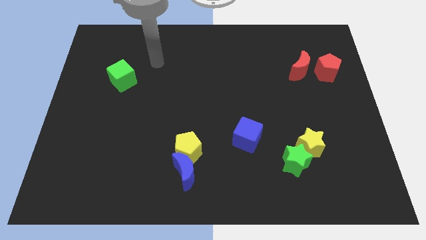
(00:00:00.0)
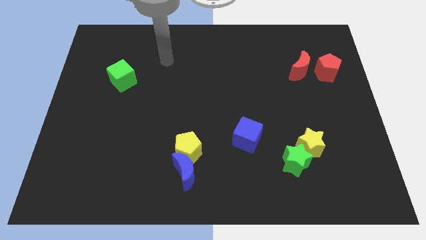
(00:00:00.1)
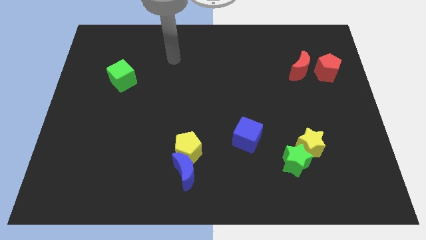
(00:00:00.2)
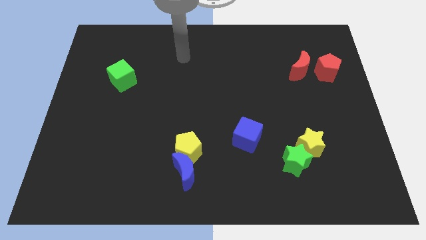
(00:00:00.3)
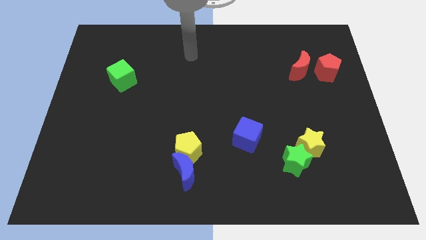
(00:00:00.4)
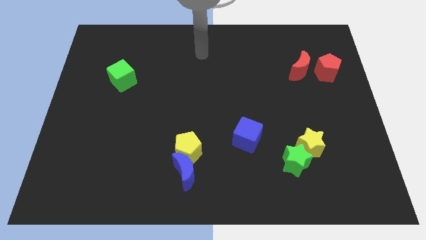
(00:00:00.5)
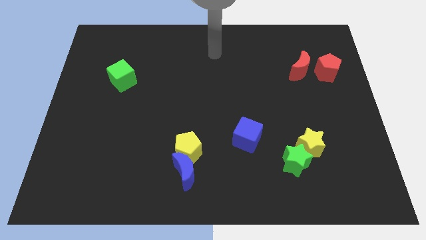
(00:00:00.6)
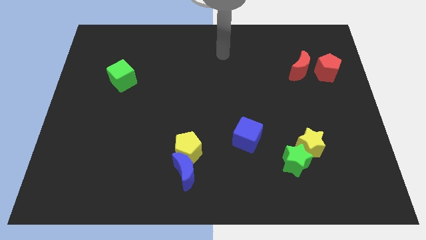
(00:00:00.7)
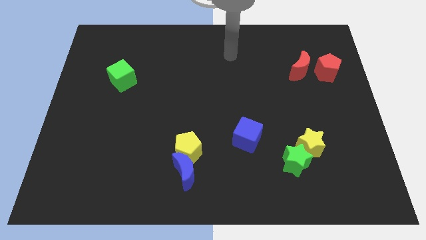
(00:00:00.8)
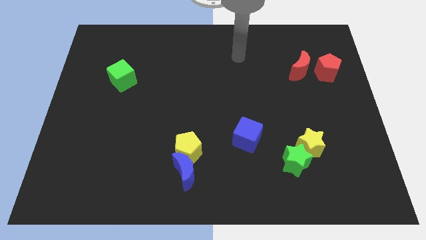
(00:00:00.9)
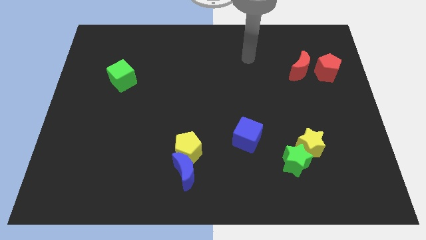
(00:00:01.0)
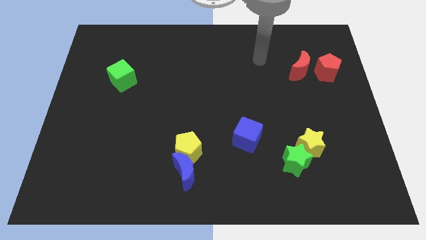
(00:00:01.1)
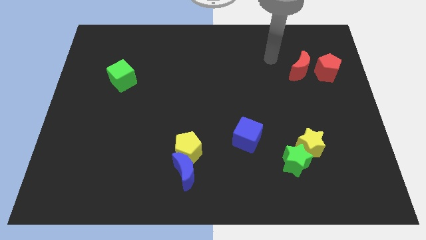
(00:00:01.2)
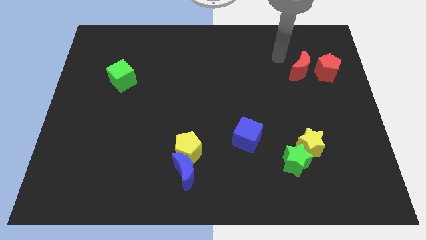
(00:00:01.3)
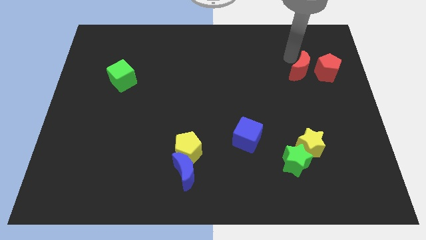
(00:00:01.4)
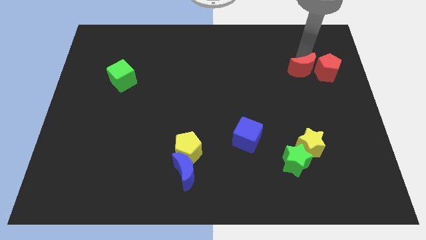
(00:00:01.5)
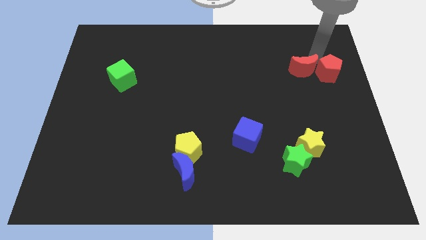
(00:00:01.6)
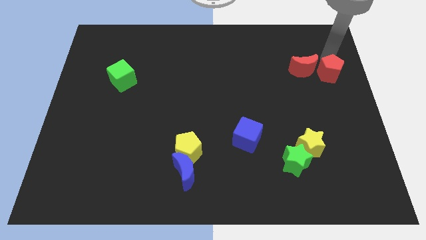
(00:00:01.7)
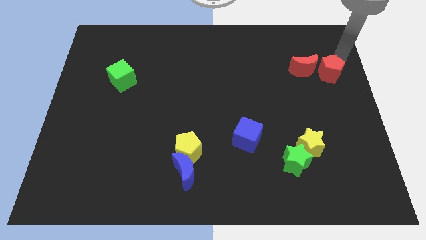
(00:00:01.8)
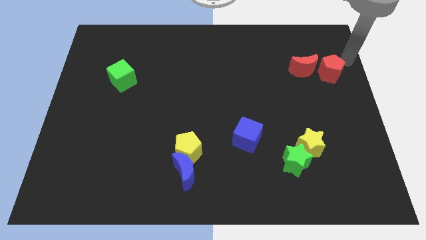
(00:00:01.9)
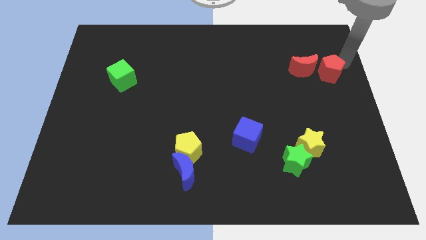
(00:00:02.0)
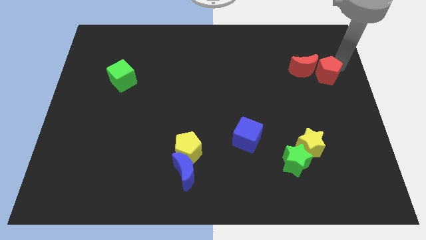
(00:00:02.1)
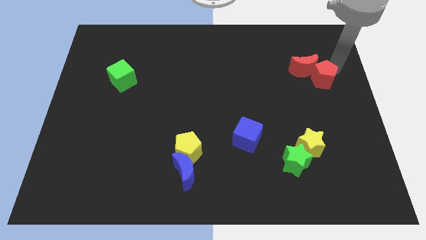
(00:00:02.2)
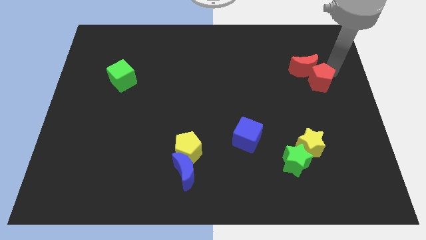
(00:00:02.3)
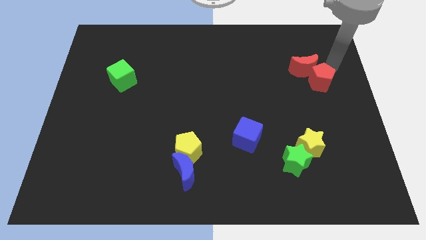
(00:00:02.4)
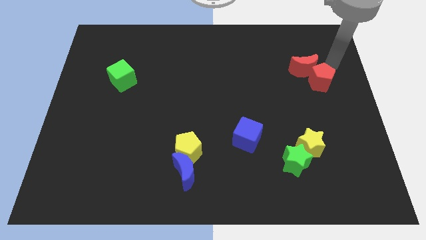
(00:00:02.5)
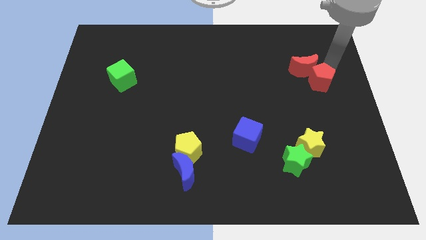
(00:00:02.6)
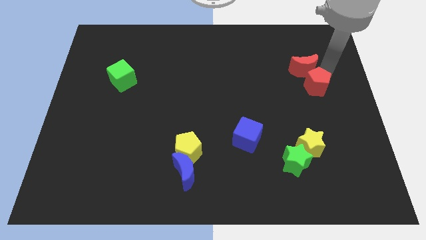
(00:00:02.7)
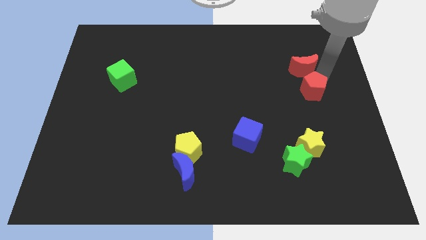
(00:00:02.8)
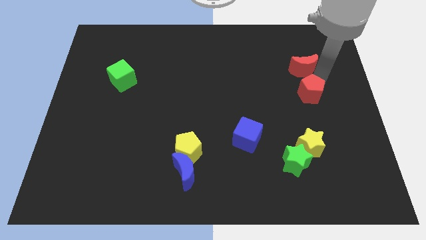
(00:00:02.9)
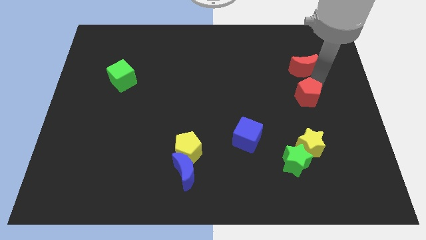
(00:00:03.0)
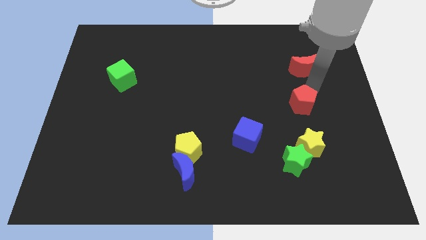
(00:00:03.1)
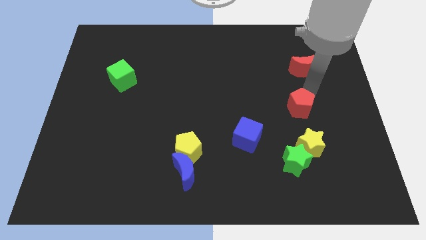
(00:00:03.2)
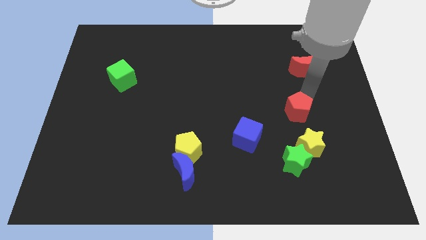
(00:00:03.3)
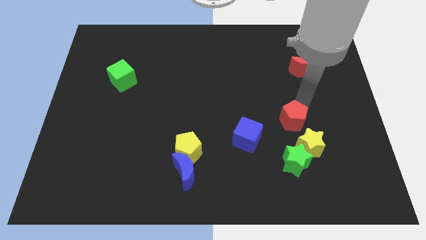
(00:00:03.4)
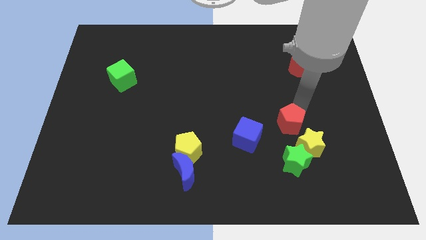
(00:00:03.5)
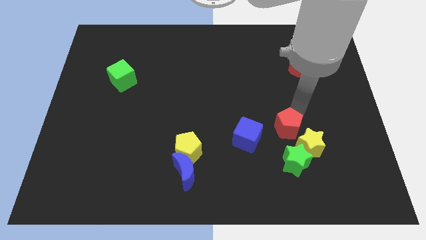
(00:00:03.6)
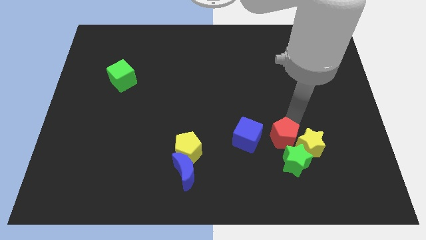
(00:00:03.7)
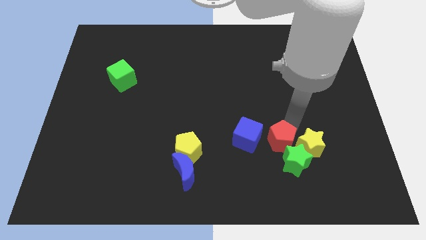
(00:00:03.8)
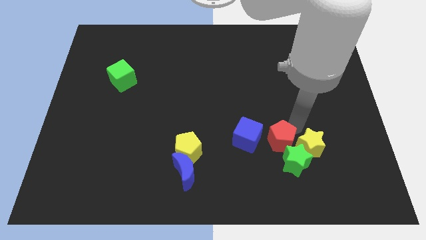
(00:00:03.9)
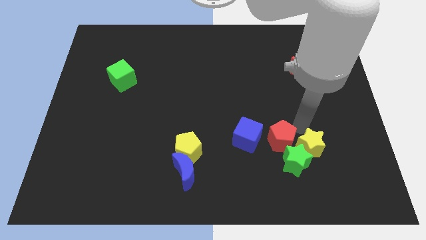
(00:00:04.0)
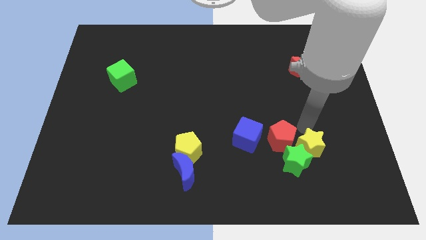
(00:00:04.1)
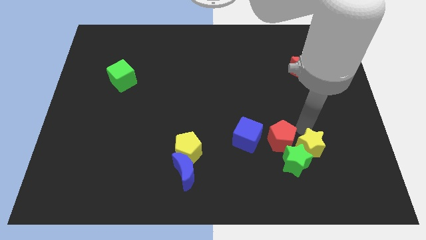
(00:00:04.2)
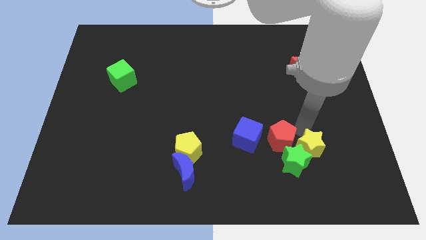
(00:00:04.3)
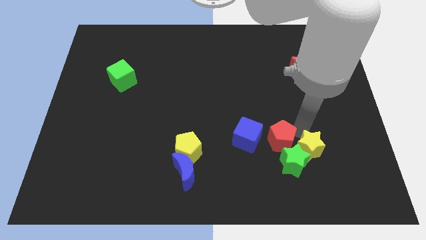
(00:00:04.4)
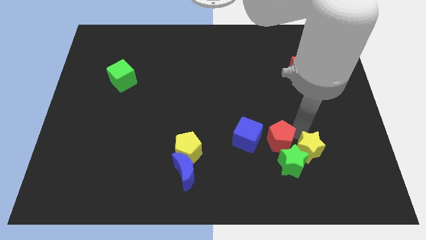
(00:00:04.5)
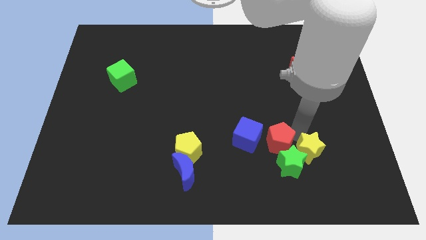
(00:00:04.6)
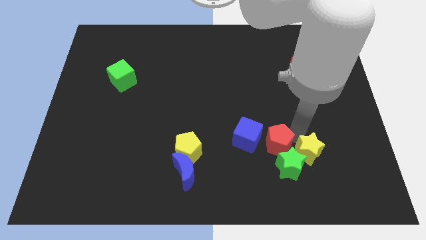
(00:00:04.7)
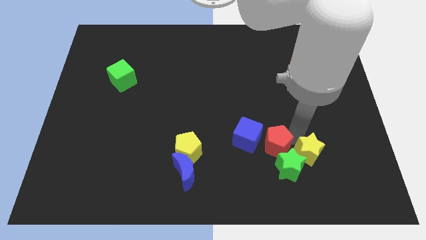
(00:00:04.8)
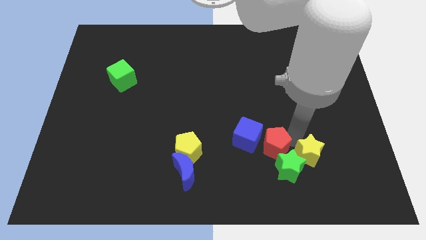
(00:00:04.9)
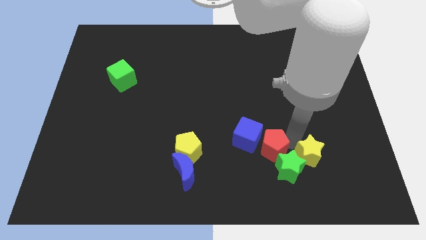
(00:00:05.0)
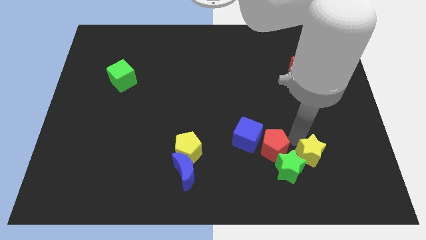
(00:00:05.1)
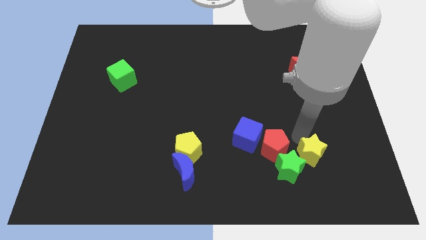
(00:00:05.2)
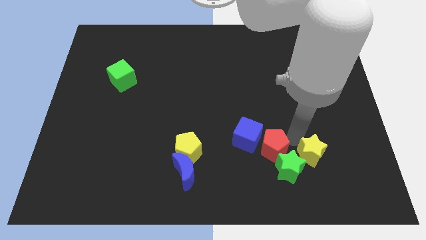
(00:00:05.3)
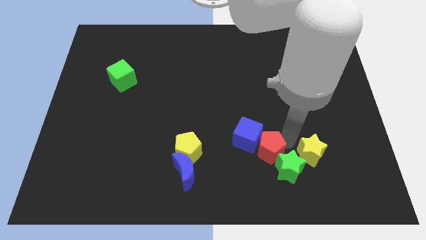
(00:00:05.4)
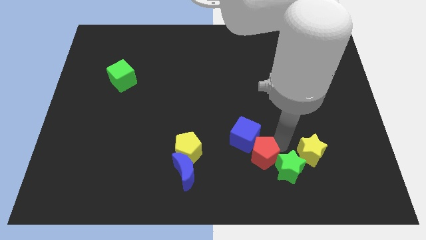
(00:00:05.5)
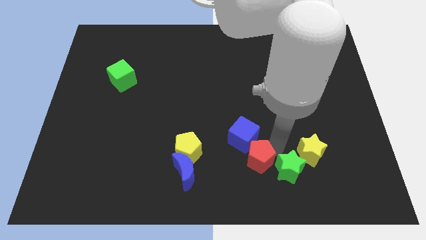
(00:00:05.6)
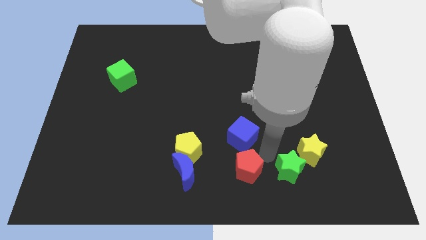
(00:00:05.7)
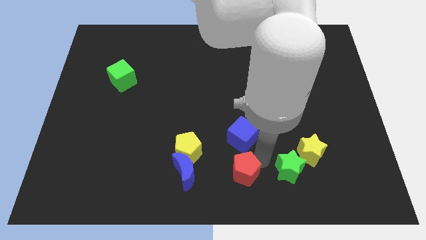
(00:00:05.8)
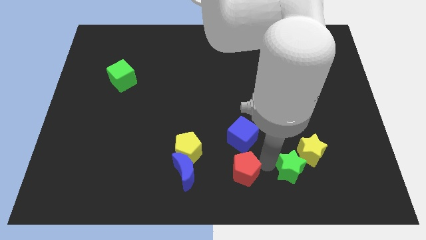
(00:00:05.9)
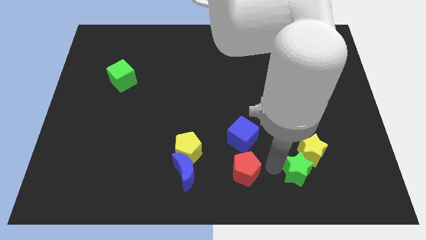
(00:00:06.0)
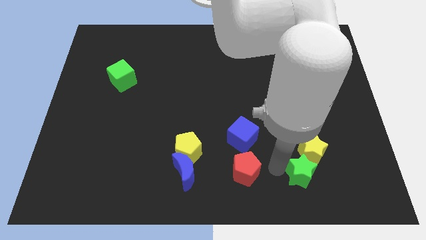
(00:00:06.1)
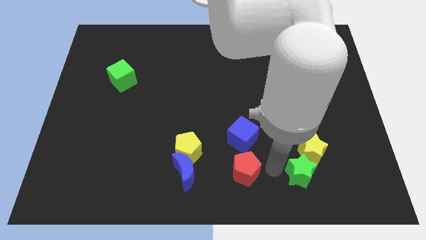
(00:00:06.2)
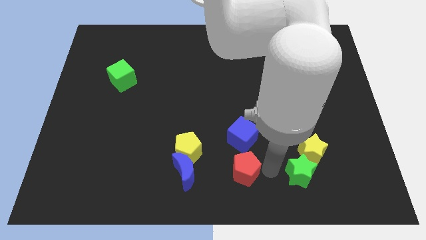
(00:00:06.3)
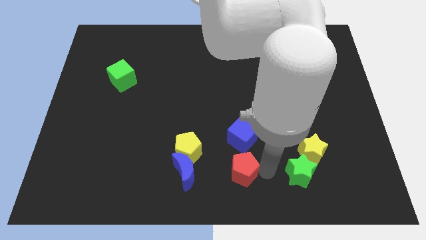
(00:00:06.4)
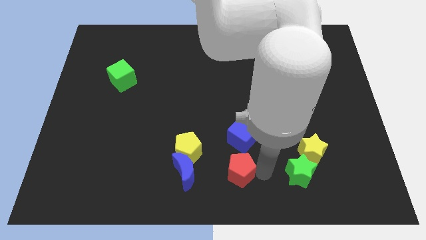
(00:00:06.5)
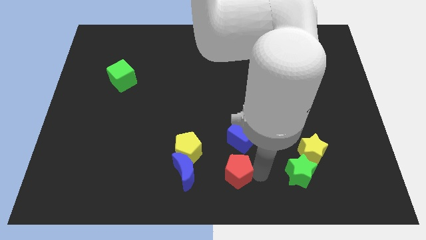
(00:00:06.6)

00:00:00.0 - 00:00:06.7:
push the red pentagon diagonally down and to the right of the yellow pentagon

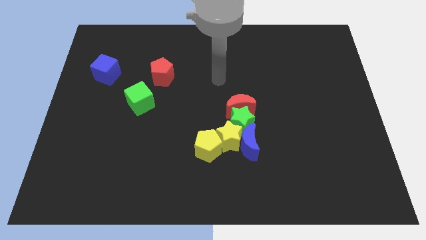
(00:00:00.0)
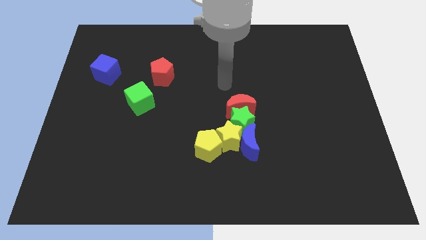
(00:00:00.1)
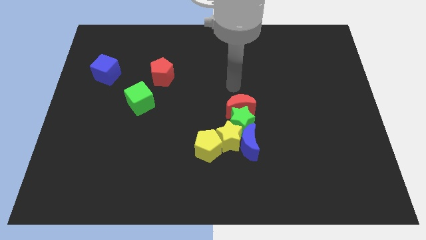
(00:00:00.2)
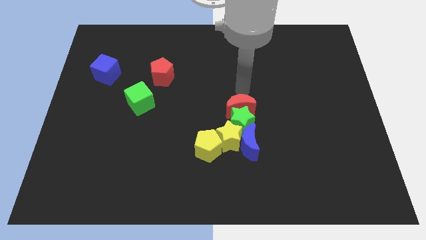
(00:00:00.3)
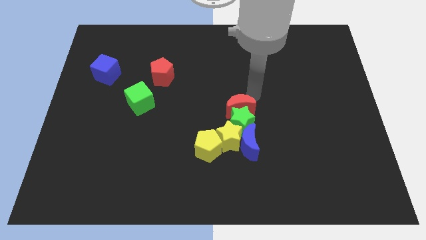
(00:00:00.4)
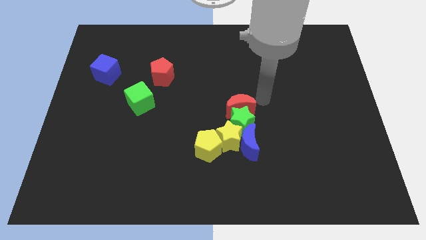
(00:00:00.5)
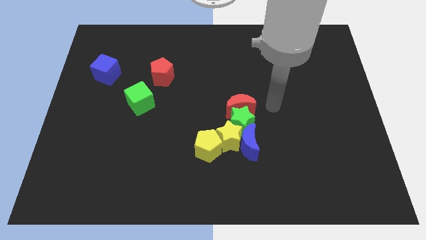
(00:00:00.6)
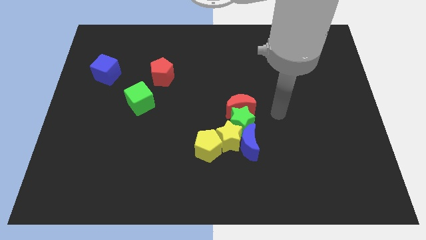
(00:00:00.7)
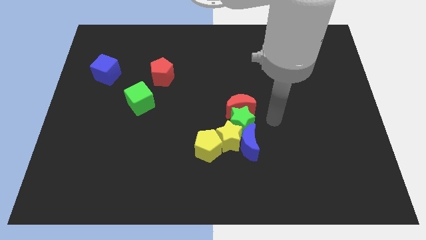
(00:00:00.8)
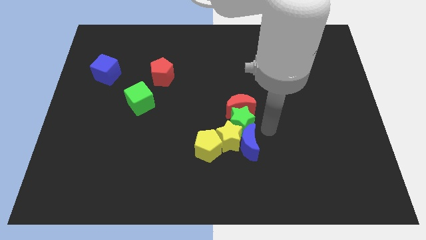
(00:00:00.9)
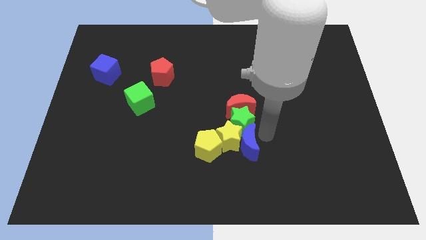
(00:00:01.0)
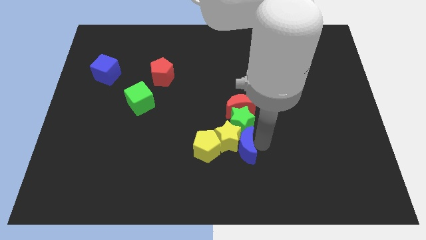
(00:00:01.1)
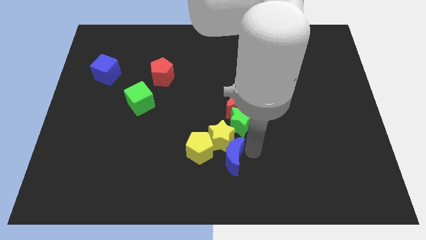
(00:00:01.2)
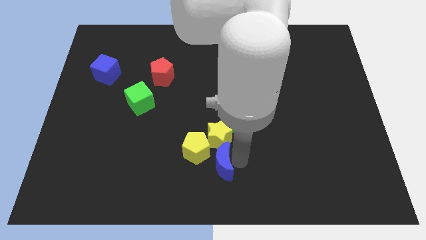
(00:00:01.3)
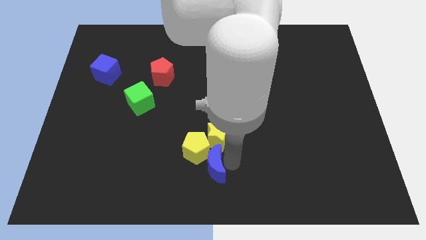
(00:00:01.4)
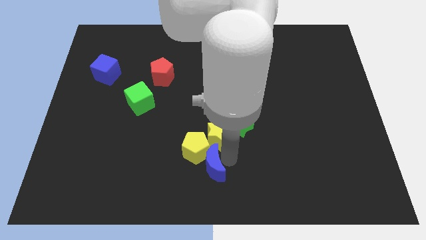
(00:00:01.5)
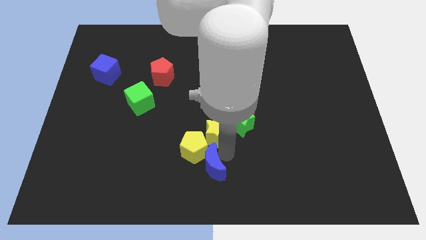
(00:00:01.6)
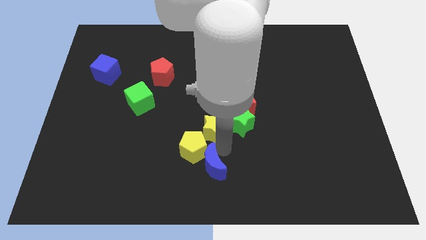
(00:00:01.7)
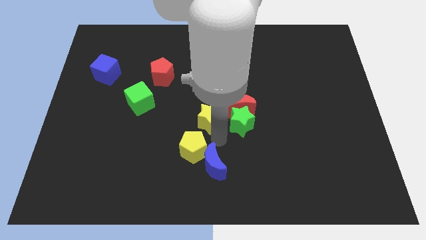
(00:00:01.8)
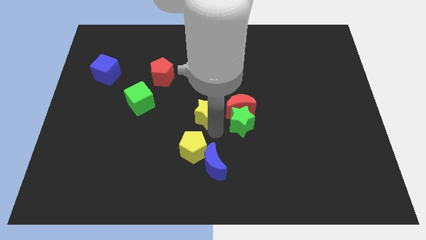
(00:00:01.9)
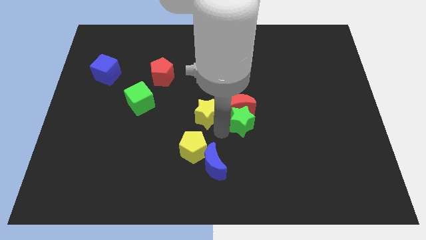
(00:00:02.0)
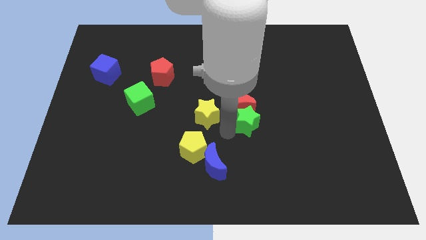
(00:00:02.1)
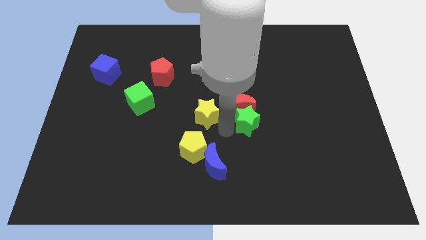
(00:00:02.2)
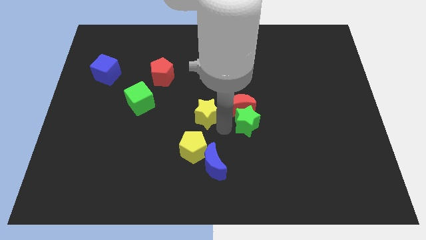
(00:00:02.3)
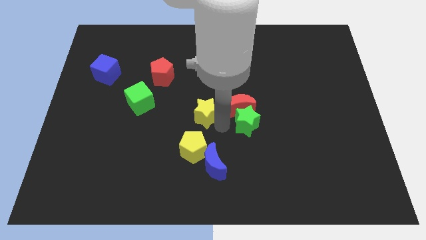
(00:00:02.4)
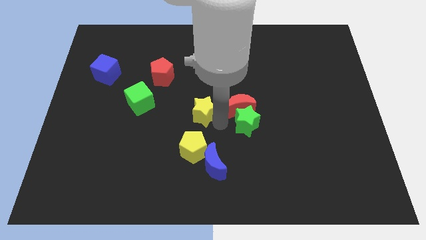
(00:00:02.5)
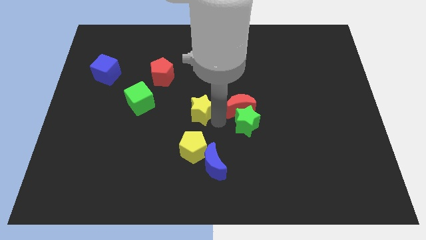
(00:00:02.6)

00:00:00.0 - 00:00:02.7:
slide the yellow star to the right of the green cube
